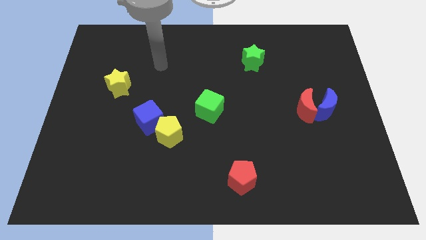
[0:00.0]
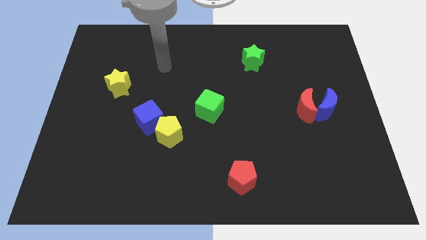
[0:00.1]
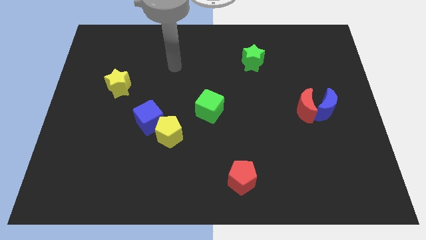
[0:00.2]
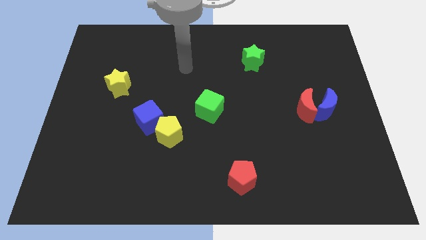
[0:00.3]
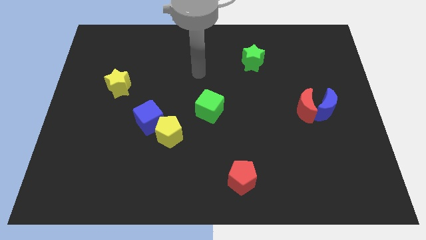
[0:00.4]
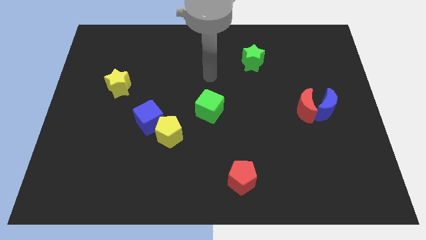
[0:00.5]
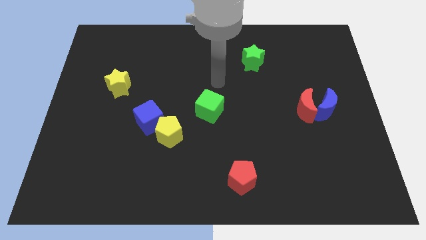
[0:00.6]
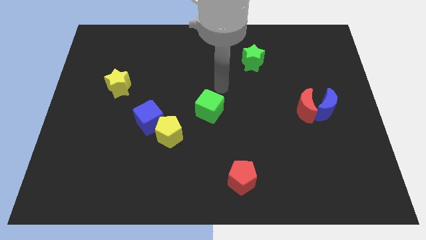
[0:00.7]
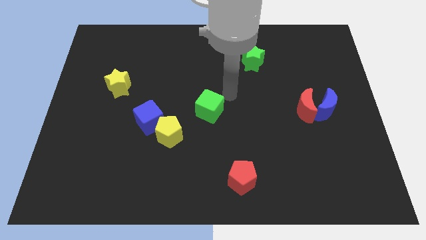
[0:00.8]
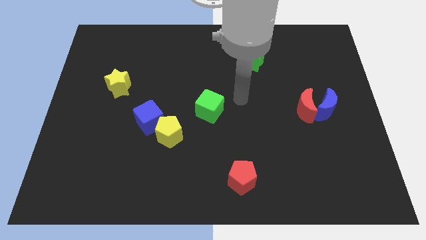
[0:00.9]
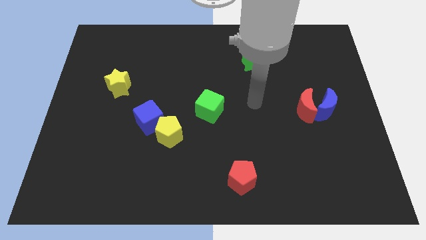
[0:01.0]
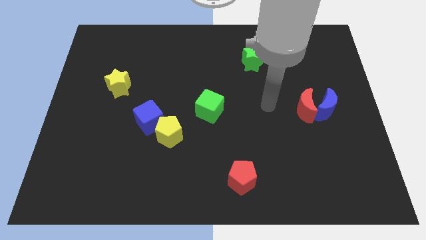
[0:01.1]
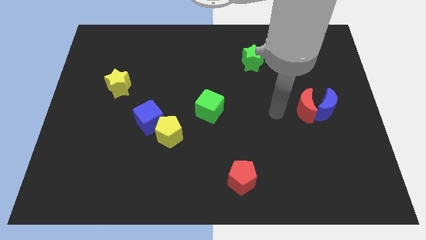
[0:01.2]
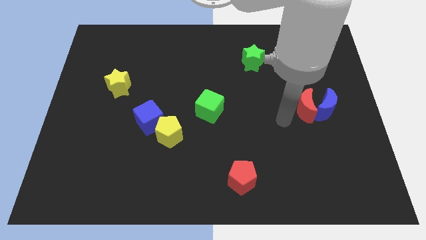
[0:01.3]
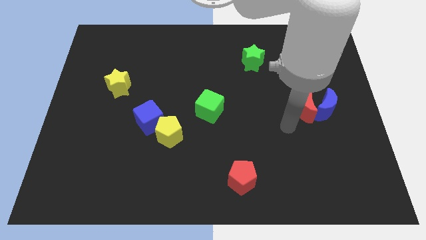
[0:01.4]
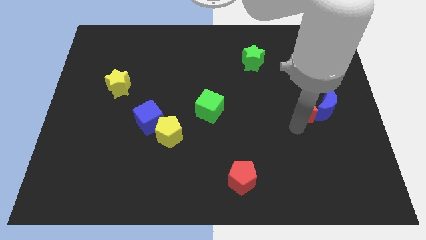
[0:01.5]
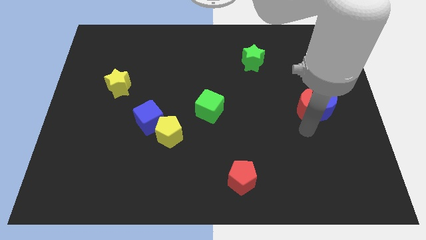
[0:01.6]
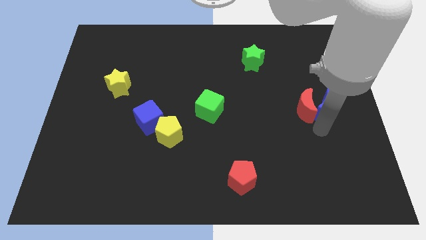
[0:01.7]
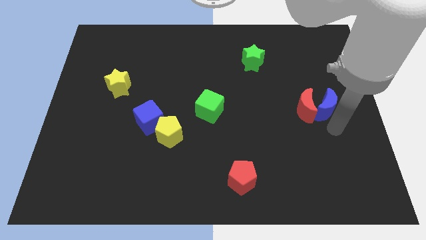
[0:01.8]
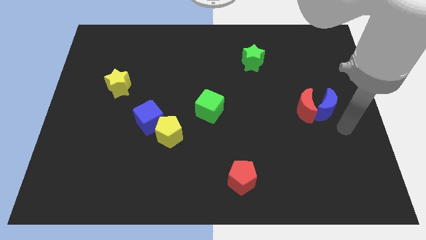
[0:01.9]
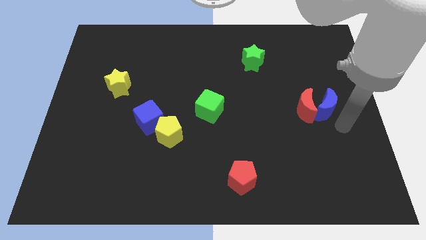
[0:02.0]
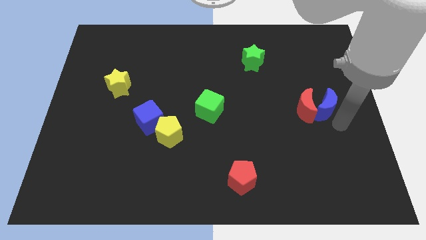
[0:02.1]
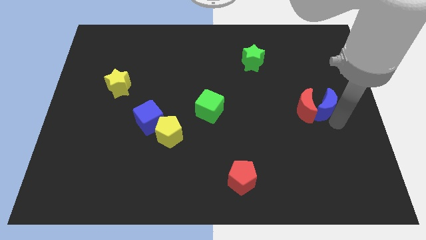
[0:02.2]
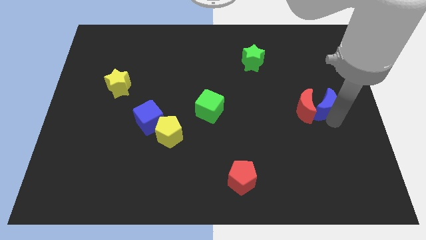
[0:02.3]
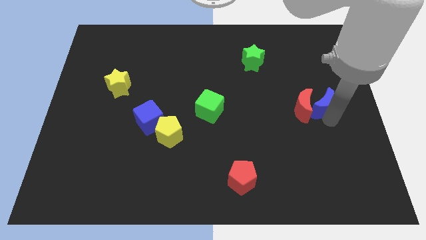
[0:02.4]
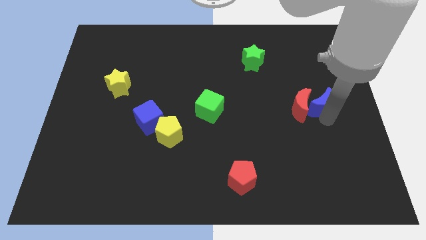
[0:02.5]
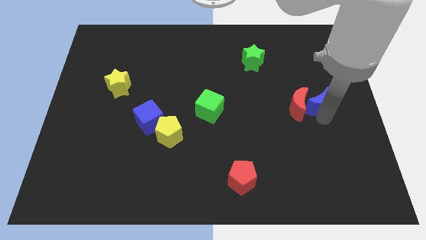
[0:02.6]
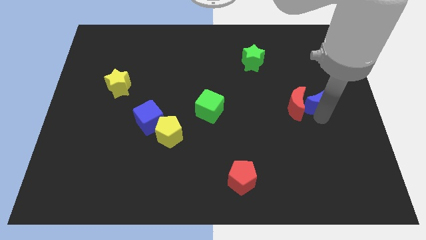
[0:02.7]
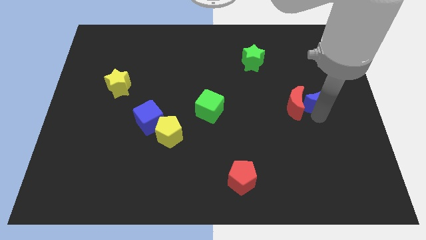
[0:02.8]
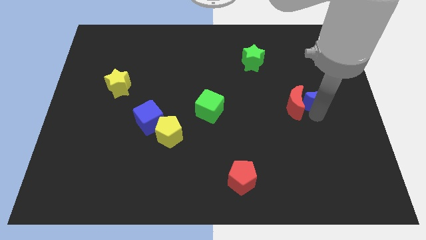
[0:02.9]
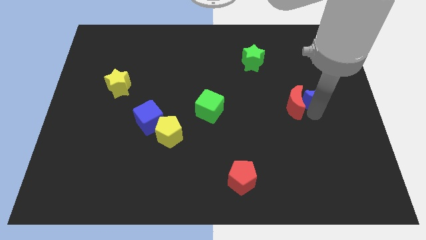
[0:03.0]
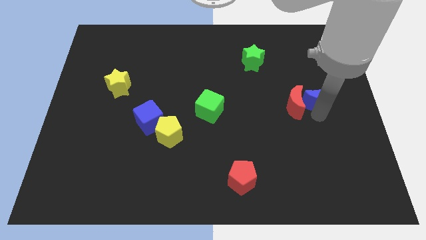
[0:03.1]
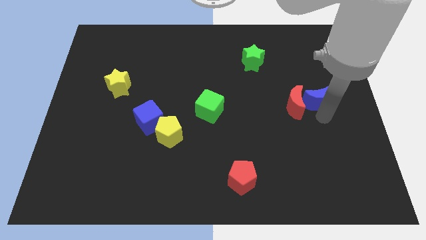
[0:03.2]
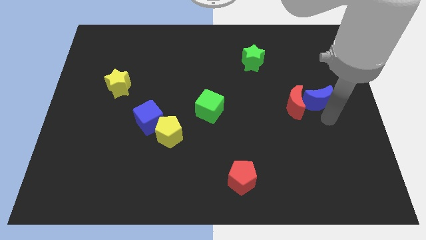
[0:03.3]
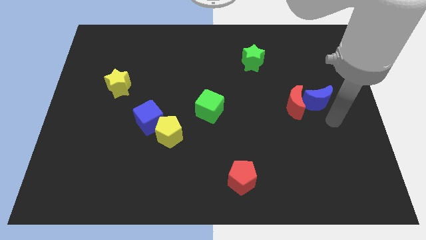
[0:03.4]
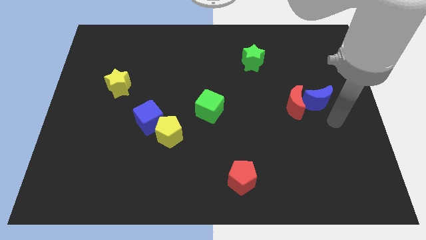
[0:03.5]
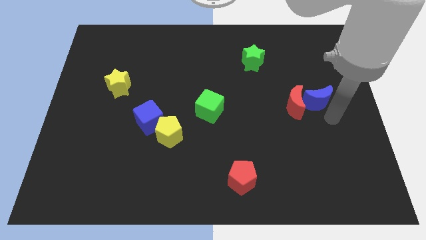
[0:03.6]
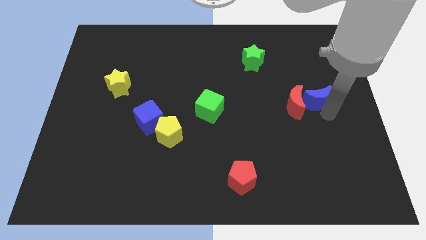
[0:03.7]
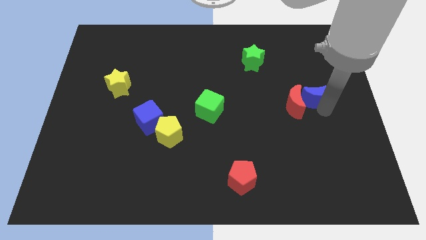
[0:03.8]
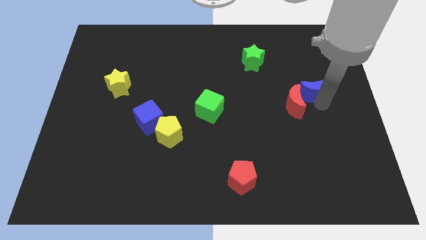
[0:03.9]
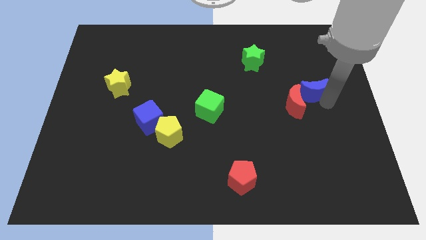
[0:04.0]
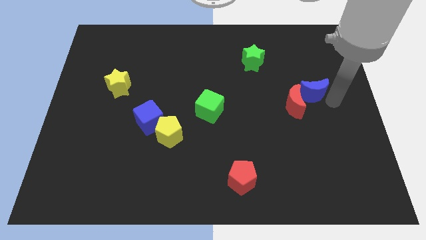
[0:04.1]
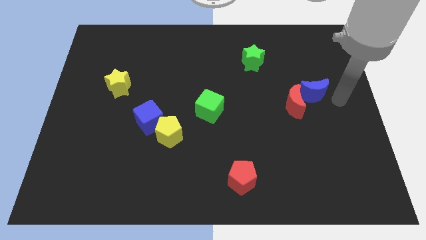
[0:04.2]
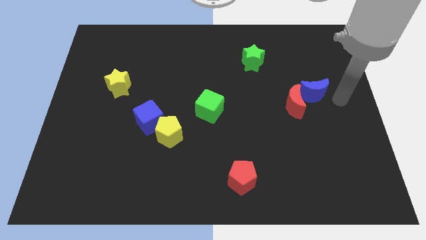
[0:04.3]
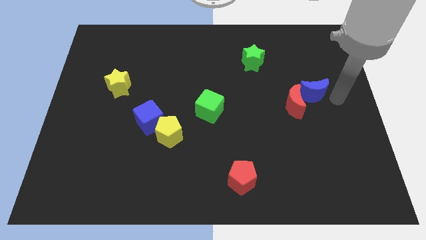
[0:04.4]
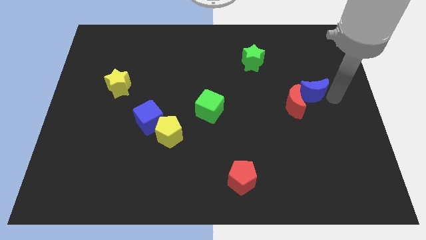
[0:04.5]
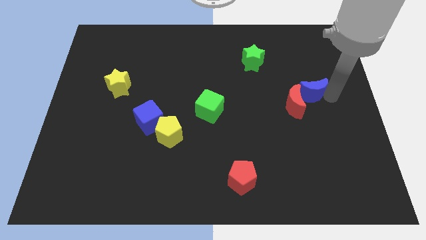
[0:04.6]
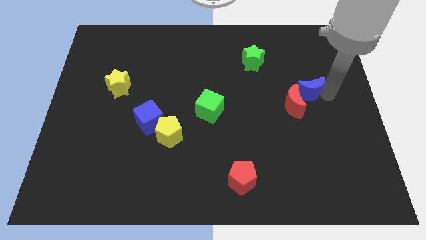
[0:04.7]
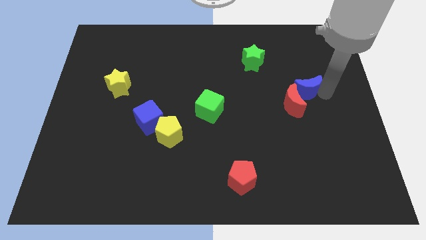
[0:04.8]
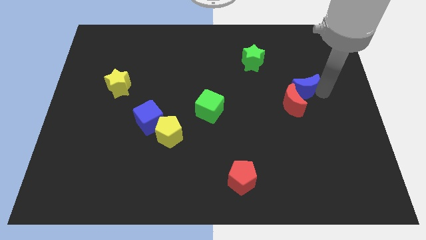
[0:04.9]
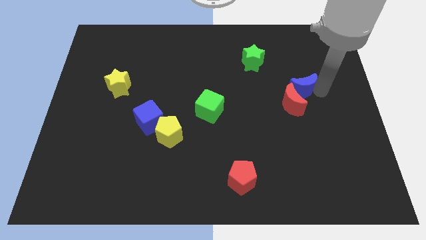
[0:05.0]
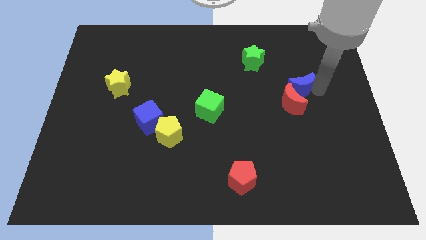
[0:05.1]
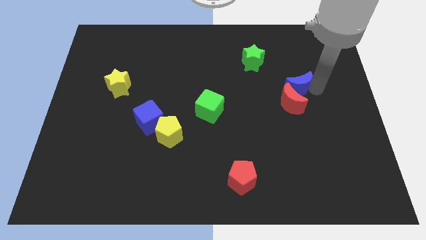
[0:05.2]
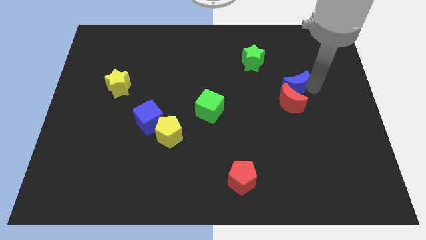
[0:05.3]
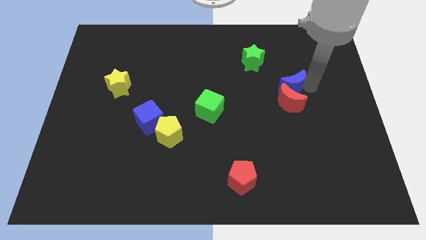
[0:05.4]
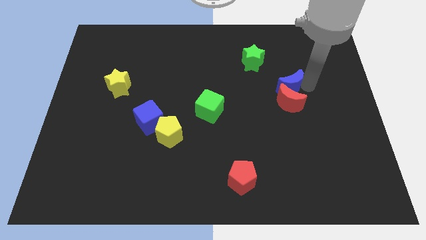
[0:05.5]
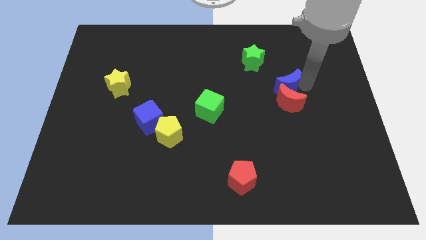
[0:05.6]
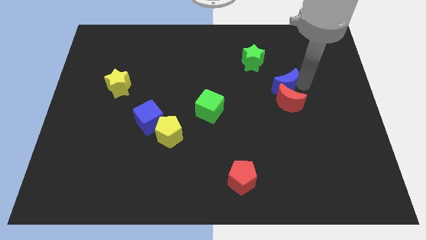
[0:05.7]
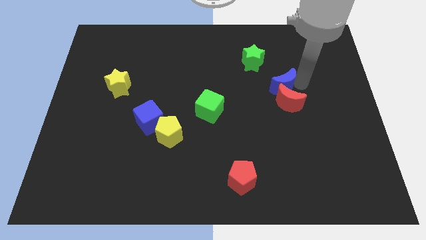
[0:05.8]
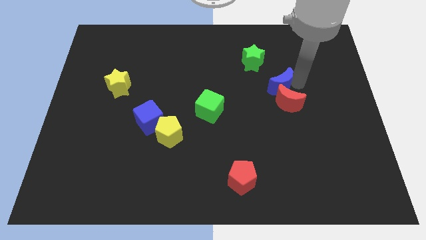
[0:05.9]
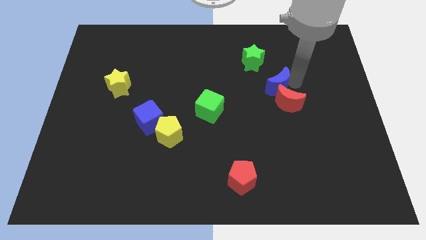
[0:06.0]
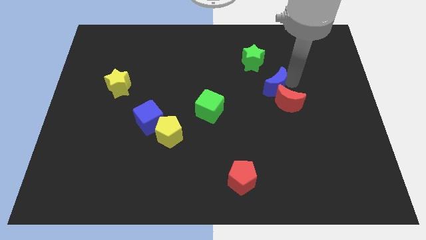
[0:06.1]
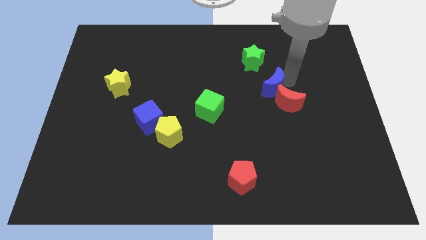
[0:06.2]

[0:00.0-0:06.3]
put the blue moon below the green star
